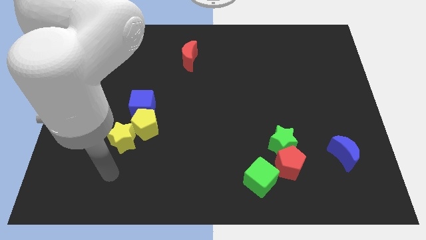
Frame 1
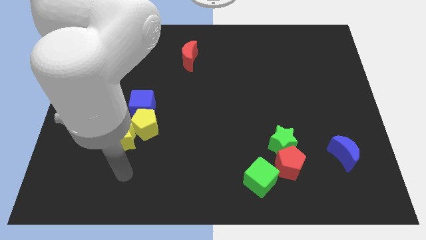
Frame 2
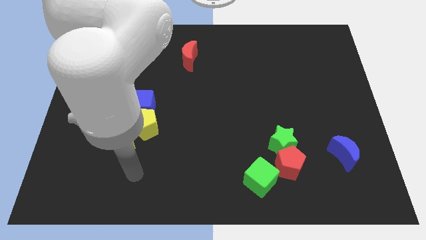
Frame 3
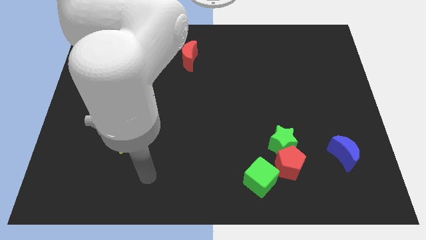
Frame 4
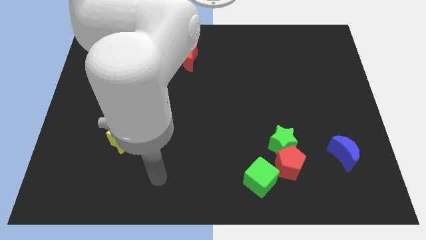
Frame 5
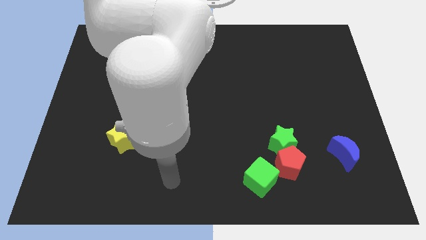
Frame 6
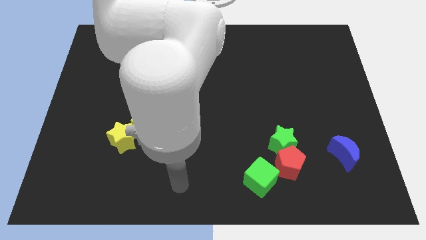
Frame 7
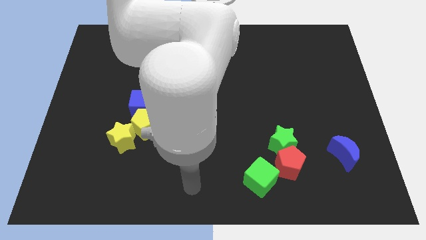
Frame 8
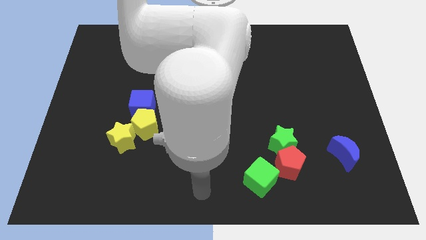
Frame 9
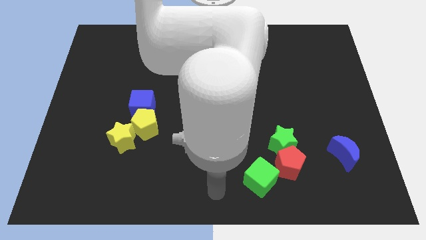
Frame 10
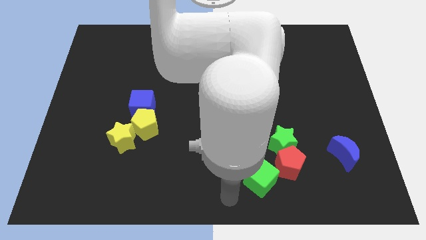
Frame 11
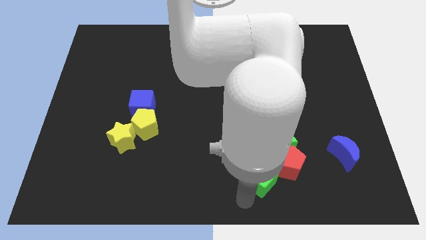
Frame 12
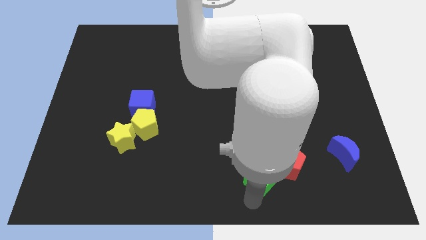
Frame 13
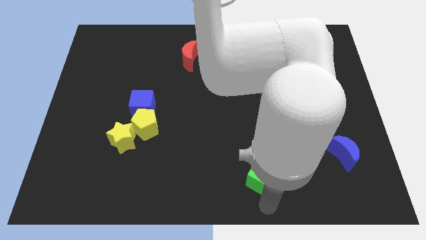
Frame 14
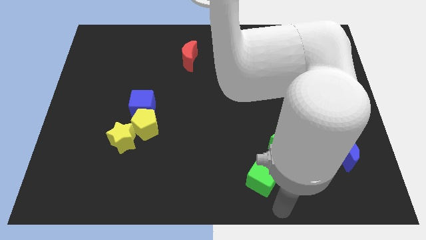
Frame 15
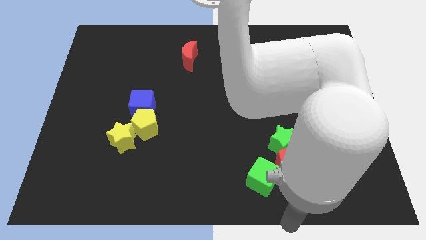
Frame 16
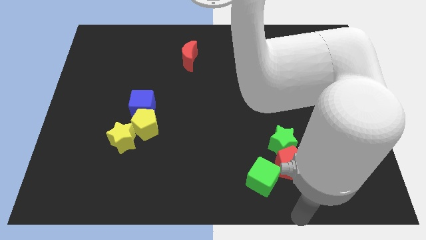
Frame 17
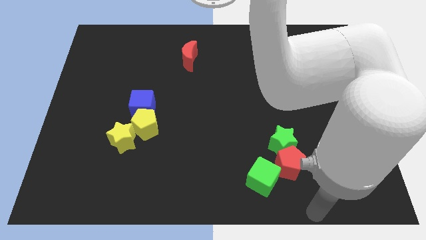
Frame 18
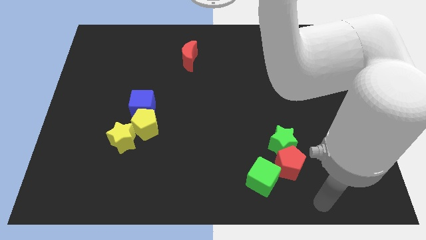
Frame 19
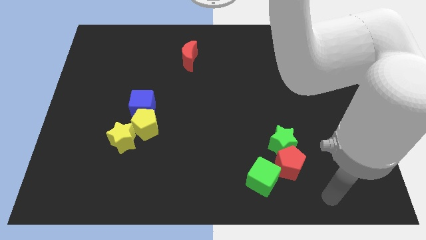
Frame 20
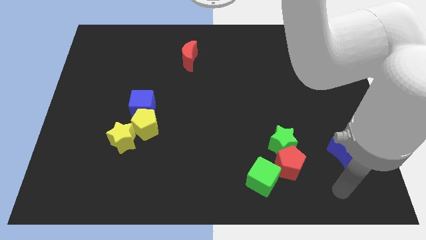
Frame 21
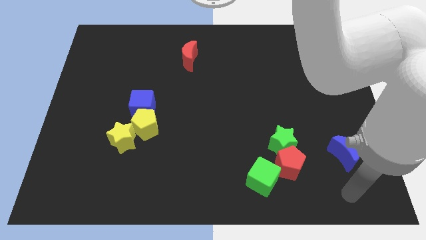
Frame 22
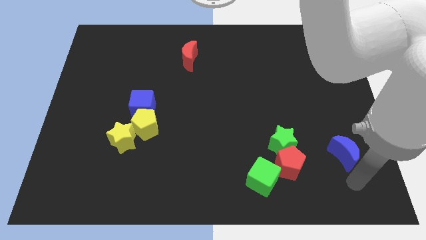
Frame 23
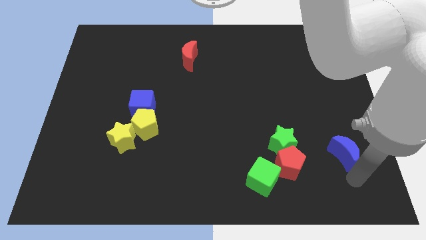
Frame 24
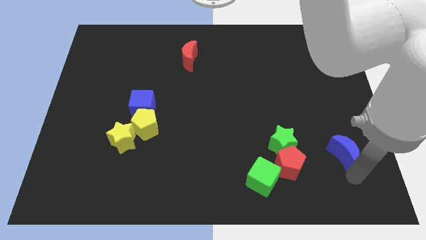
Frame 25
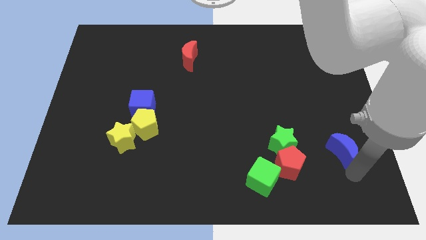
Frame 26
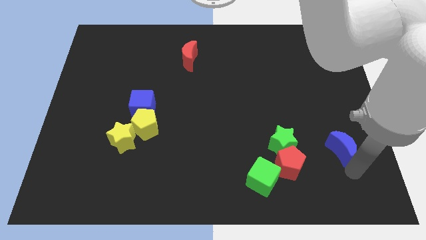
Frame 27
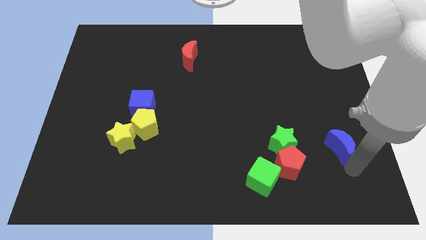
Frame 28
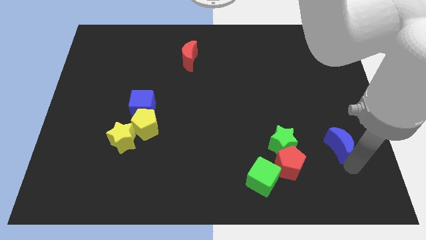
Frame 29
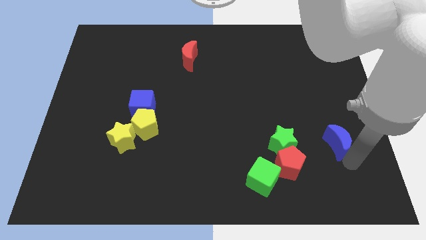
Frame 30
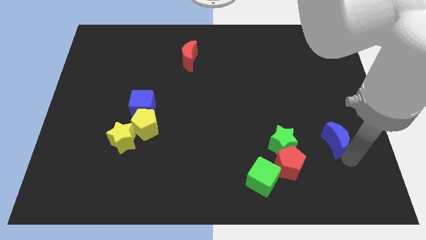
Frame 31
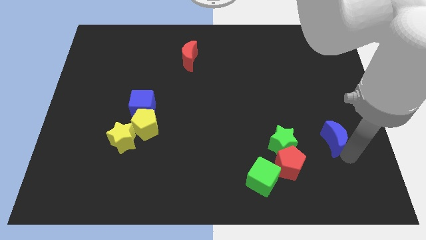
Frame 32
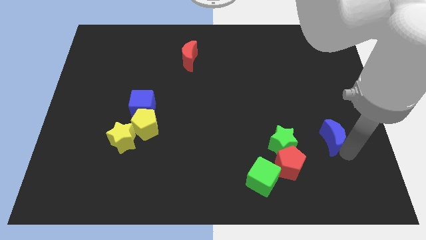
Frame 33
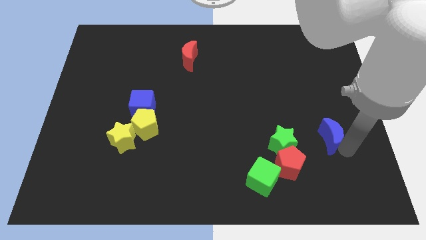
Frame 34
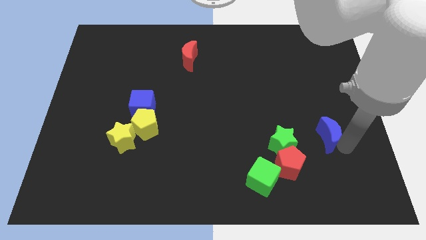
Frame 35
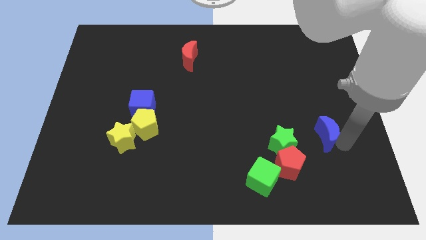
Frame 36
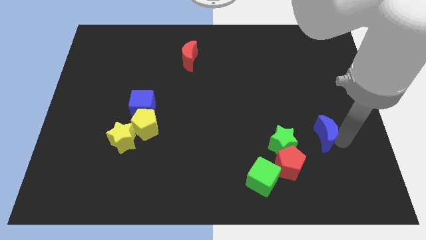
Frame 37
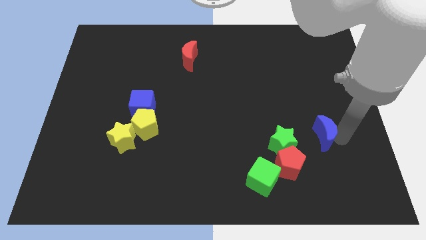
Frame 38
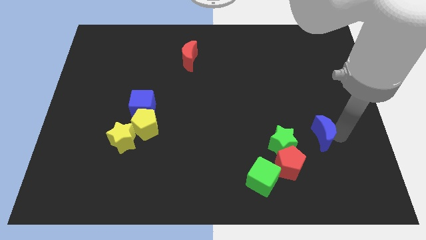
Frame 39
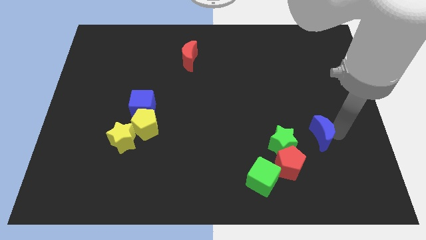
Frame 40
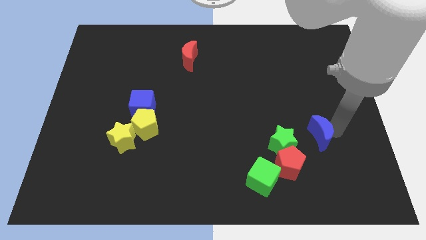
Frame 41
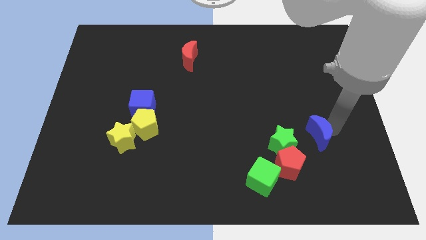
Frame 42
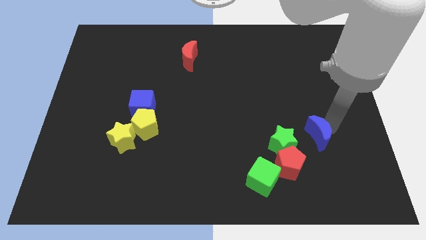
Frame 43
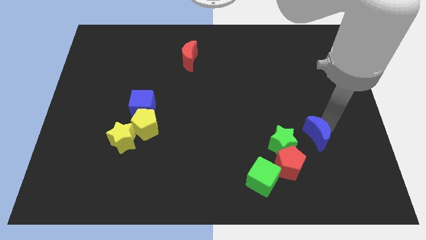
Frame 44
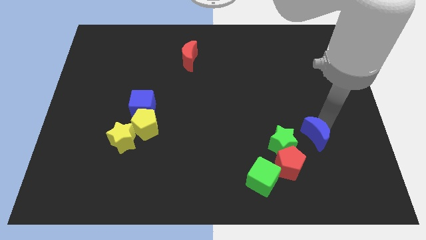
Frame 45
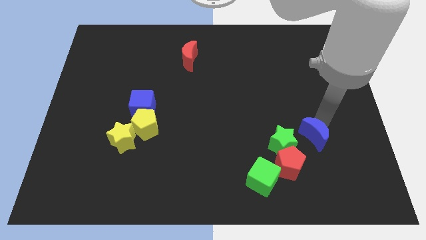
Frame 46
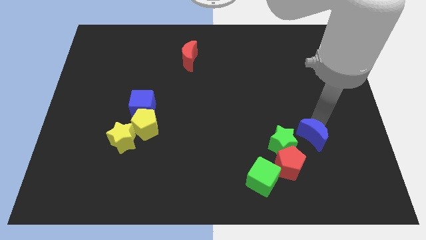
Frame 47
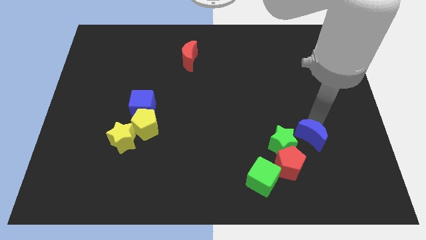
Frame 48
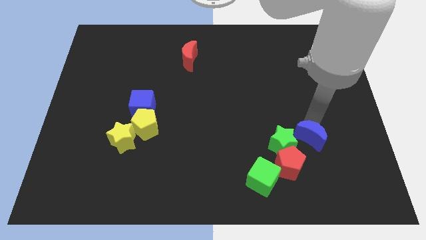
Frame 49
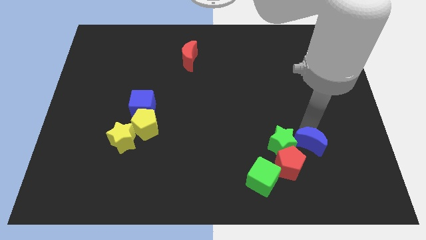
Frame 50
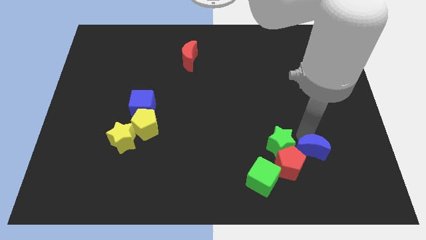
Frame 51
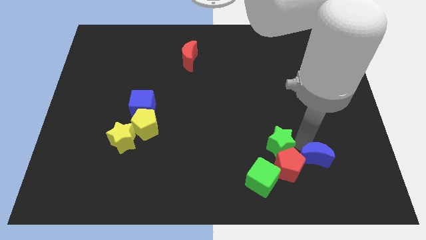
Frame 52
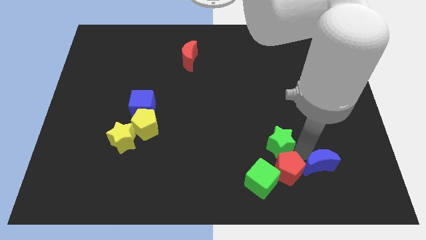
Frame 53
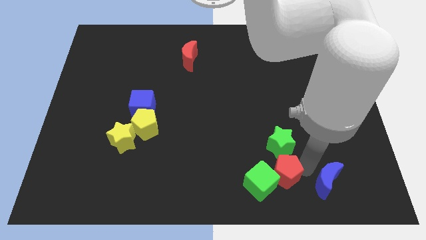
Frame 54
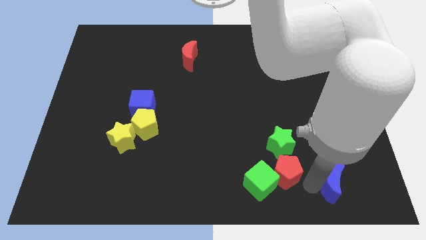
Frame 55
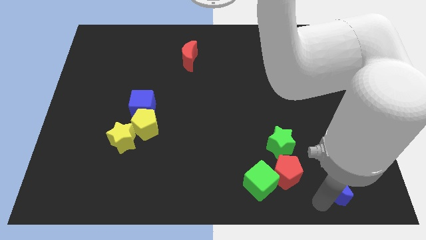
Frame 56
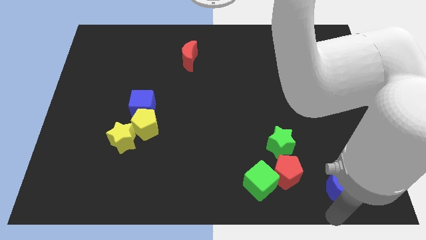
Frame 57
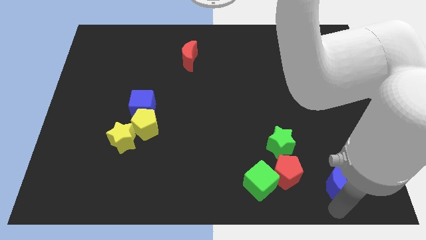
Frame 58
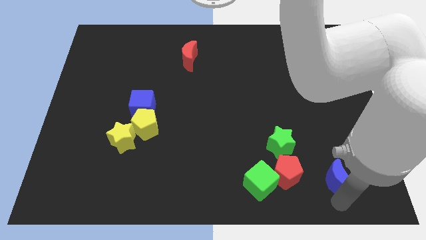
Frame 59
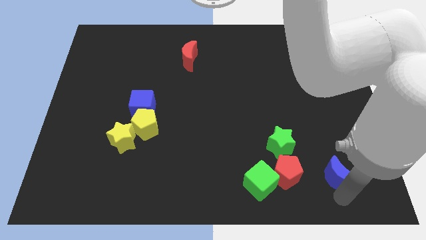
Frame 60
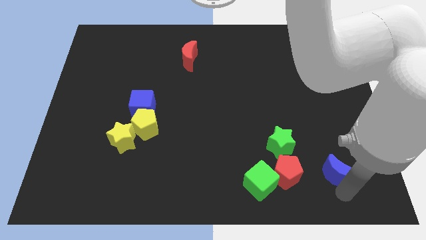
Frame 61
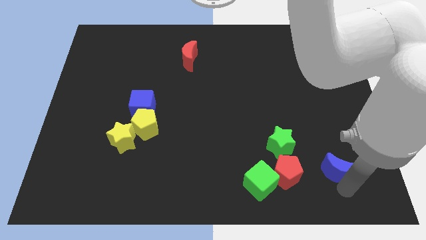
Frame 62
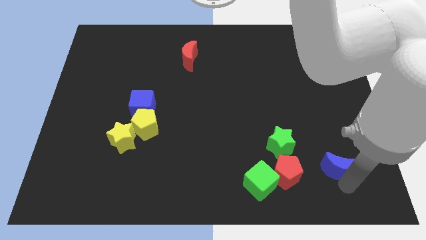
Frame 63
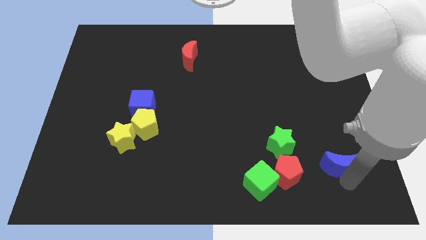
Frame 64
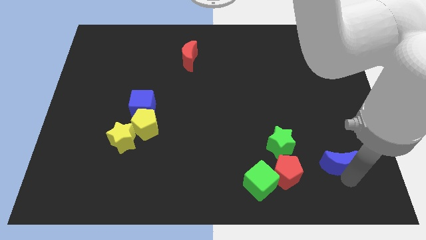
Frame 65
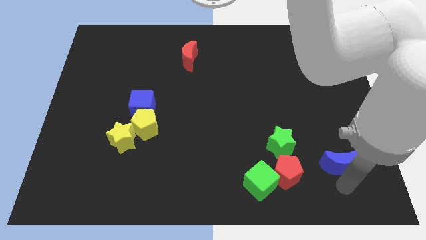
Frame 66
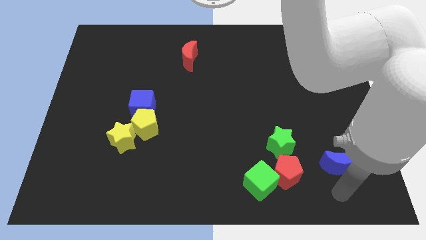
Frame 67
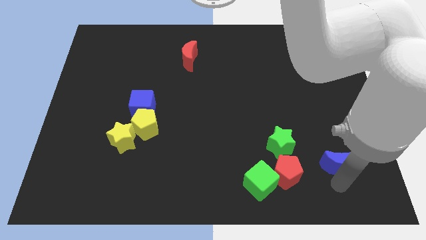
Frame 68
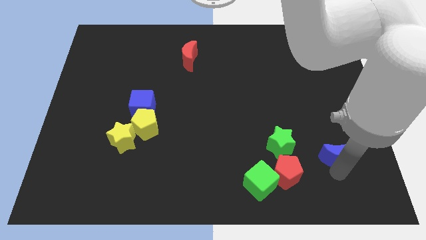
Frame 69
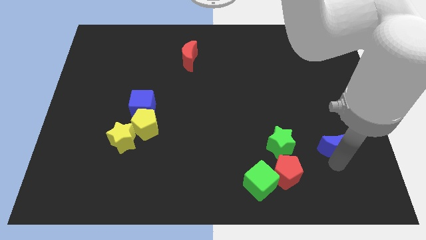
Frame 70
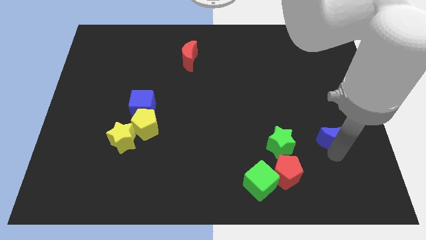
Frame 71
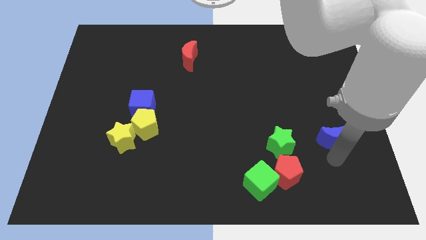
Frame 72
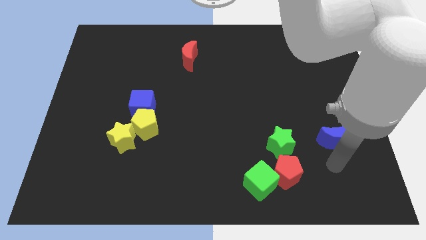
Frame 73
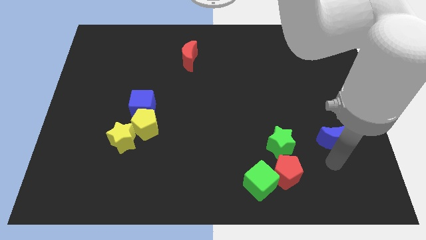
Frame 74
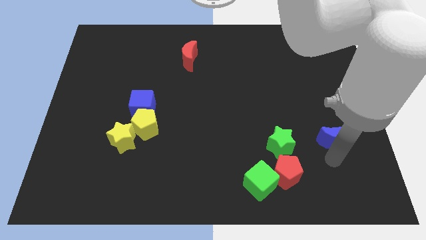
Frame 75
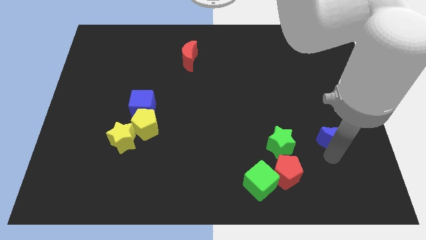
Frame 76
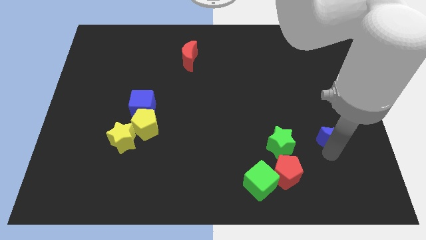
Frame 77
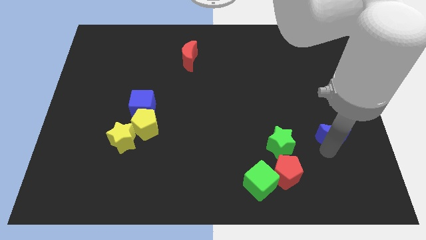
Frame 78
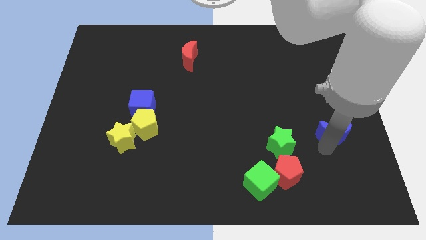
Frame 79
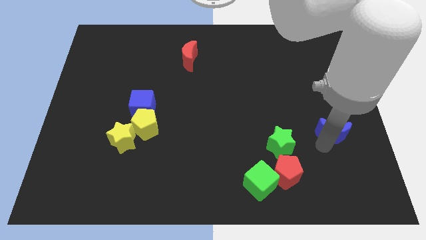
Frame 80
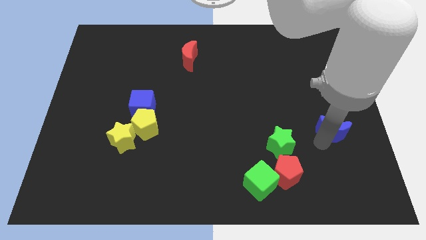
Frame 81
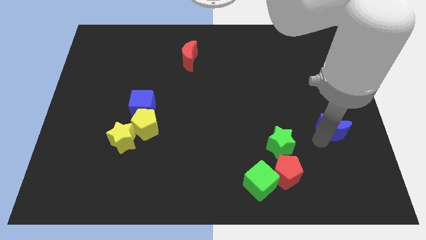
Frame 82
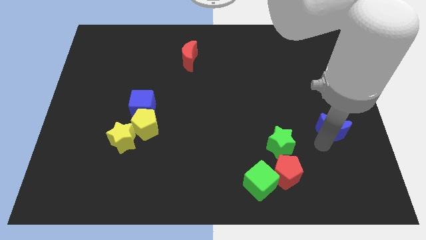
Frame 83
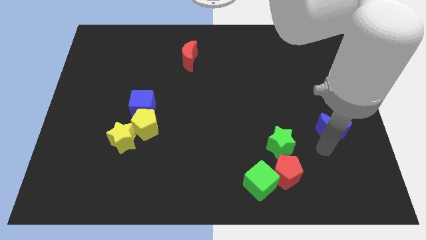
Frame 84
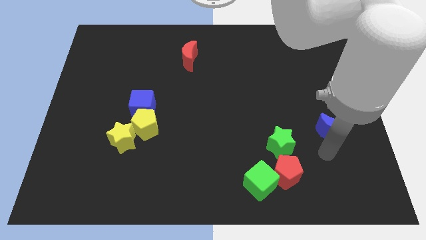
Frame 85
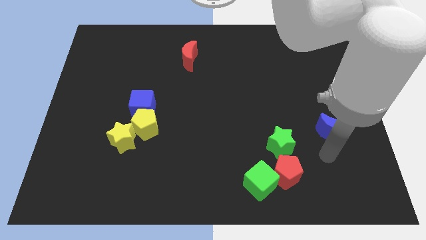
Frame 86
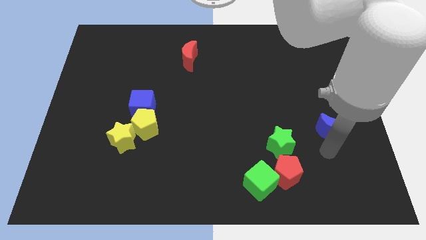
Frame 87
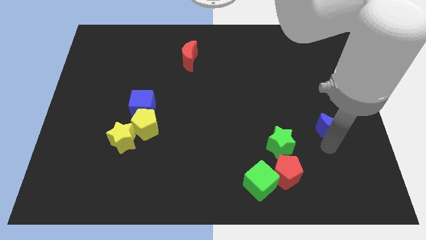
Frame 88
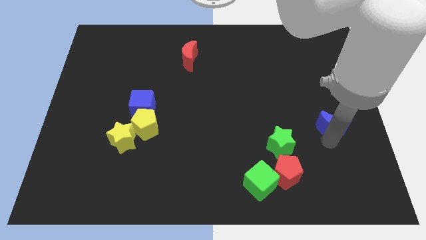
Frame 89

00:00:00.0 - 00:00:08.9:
move the blue moon a little up
